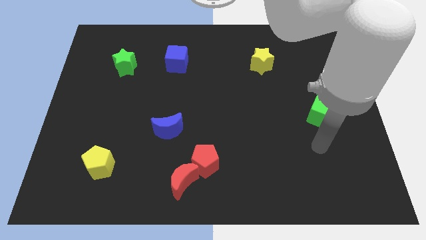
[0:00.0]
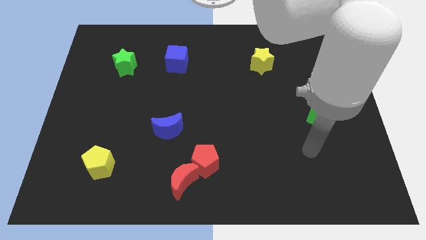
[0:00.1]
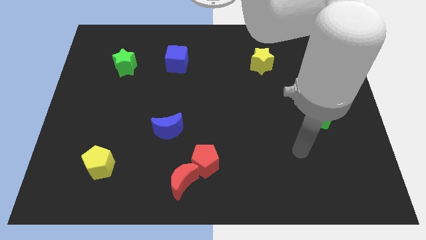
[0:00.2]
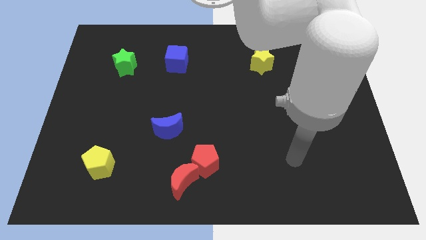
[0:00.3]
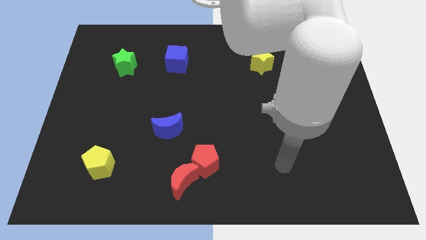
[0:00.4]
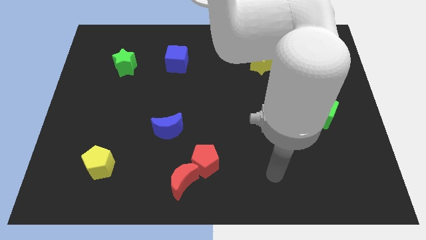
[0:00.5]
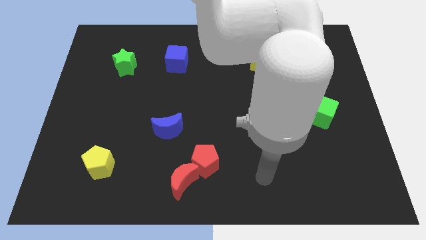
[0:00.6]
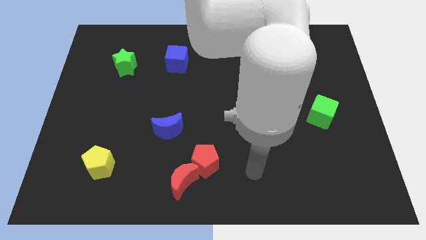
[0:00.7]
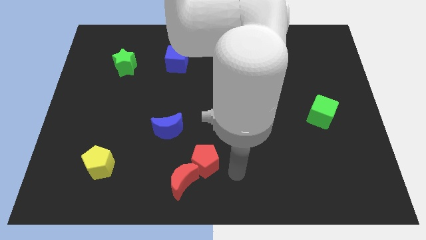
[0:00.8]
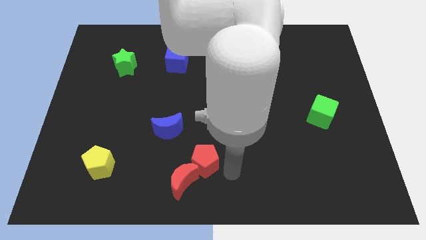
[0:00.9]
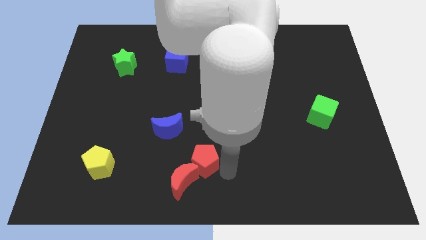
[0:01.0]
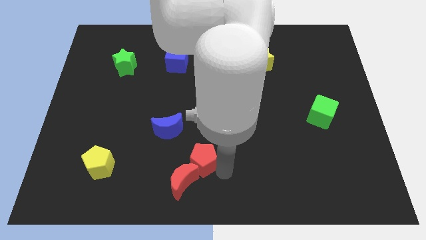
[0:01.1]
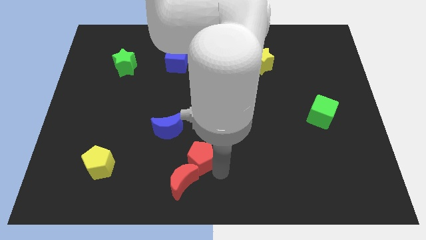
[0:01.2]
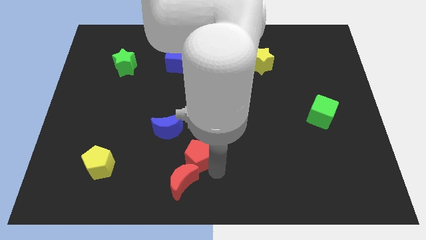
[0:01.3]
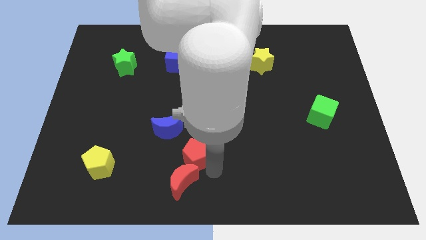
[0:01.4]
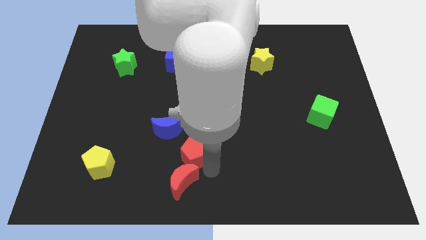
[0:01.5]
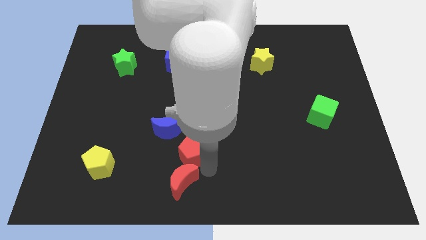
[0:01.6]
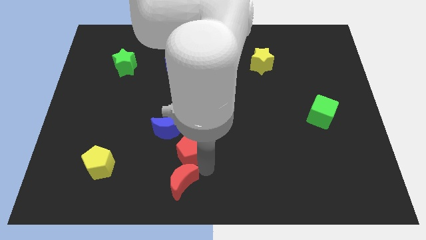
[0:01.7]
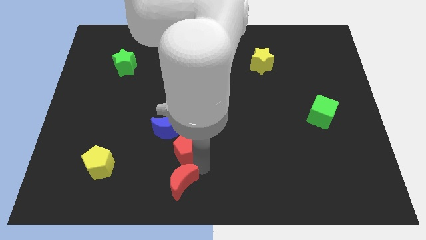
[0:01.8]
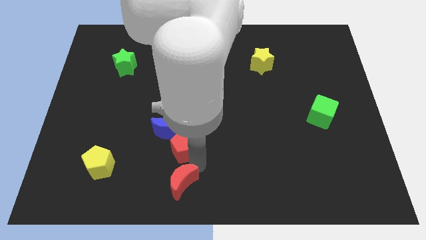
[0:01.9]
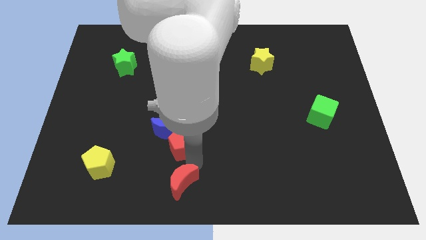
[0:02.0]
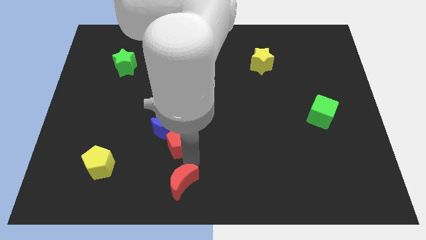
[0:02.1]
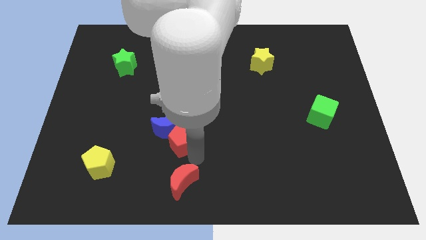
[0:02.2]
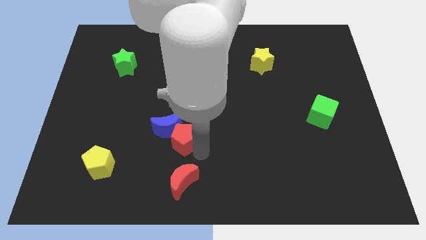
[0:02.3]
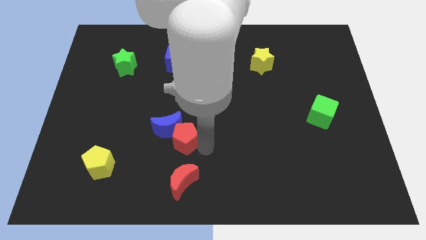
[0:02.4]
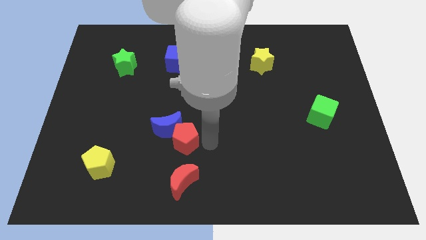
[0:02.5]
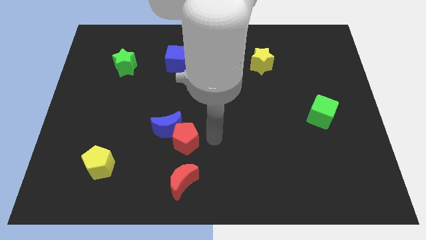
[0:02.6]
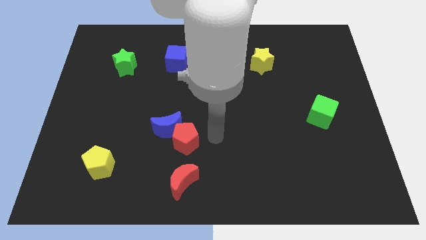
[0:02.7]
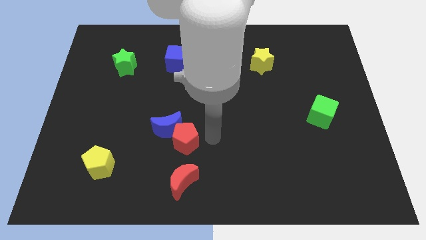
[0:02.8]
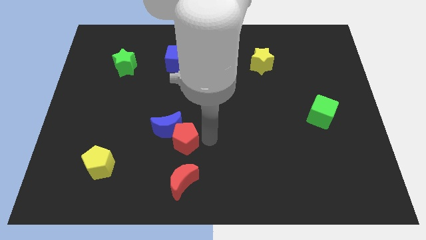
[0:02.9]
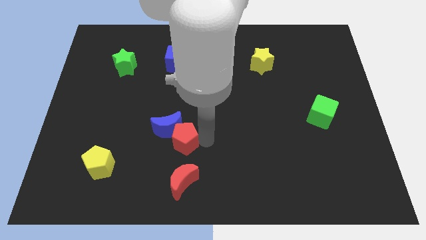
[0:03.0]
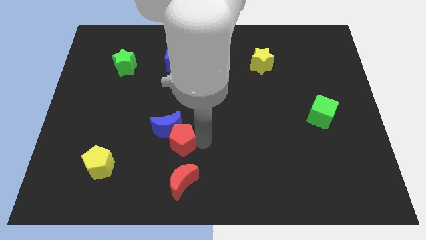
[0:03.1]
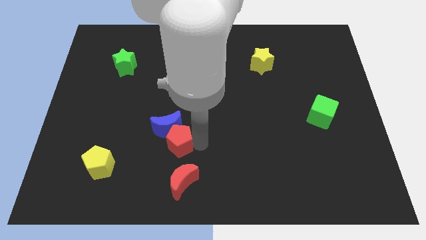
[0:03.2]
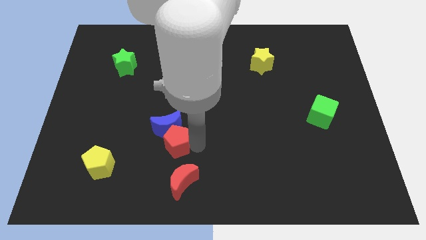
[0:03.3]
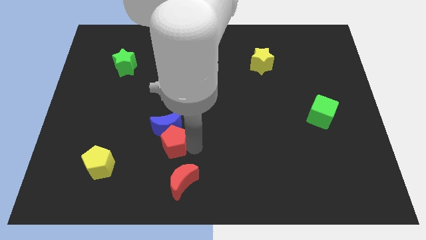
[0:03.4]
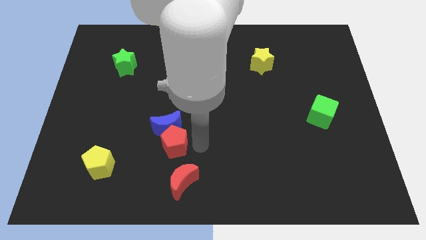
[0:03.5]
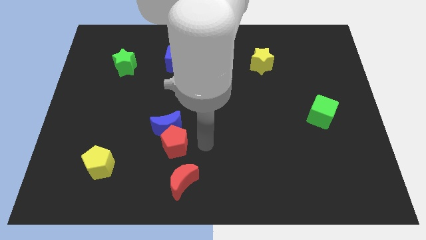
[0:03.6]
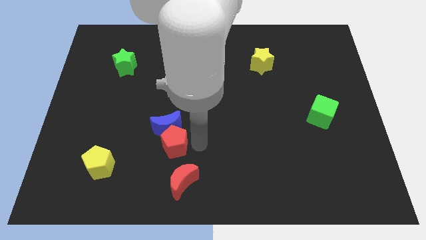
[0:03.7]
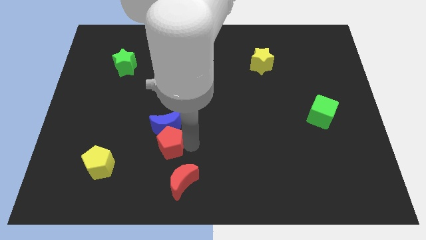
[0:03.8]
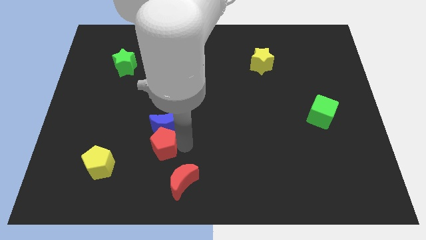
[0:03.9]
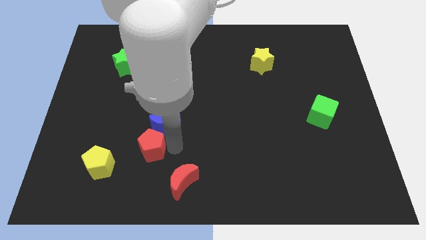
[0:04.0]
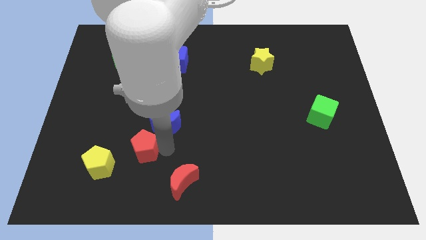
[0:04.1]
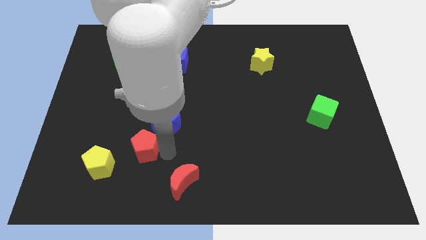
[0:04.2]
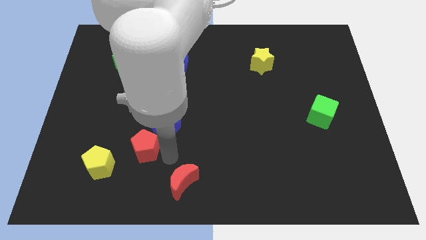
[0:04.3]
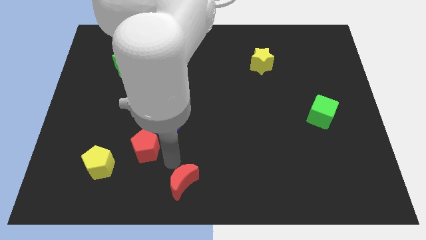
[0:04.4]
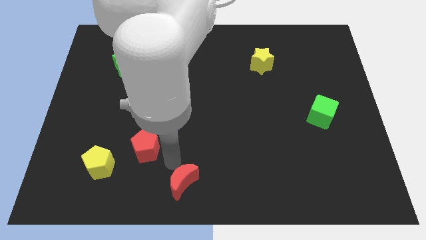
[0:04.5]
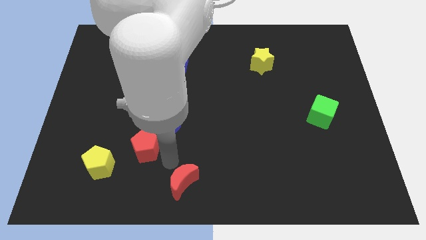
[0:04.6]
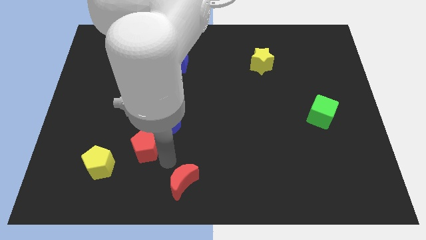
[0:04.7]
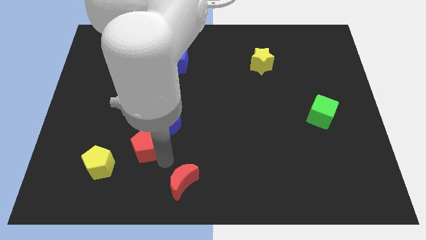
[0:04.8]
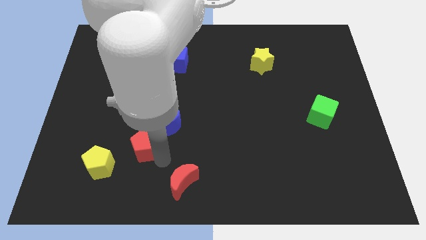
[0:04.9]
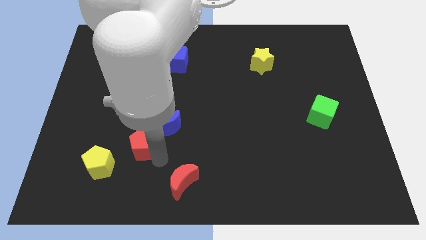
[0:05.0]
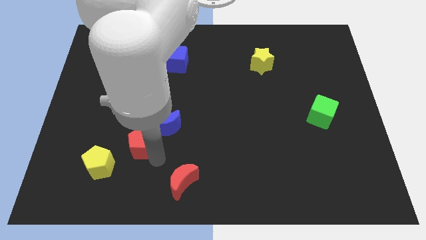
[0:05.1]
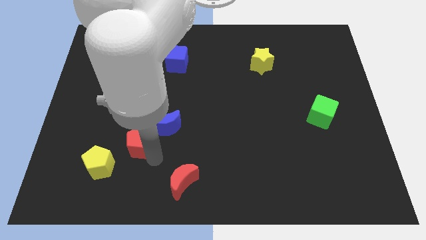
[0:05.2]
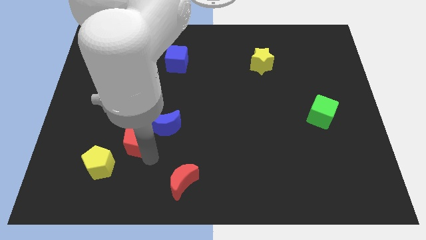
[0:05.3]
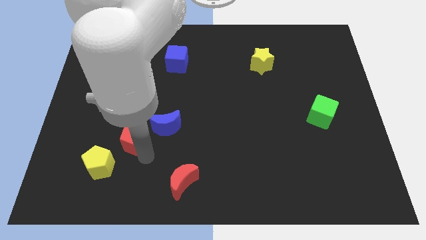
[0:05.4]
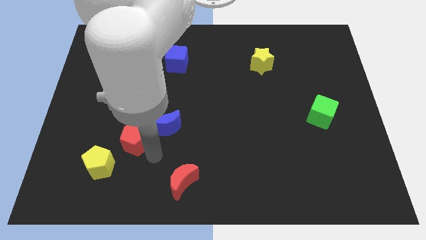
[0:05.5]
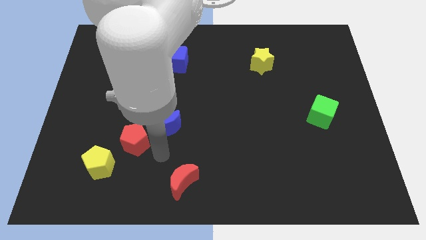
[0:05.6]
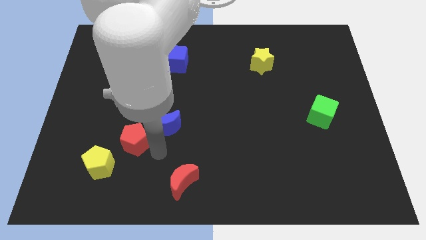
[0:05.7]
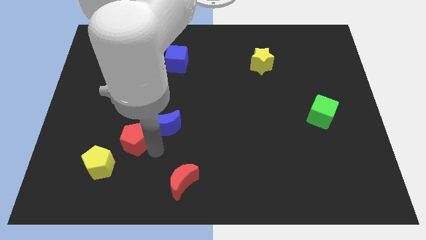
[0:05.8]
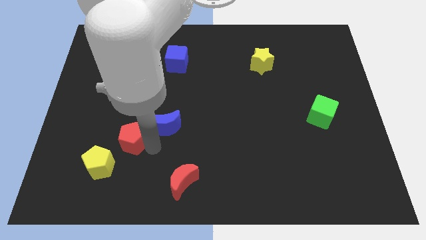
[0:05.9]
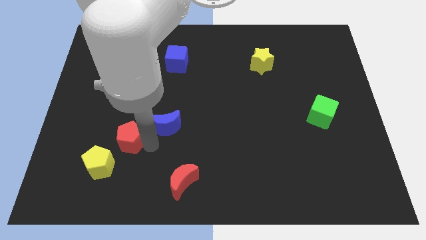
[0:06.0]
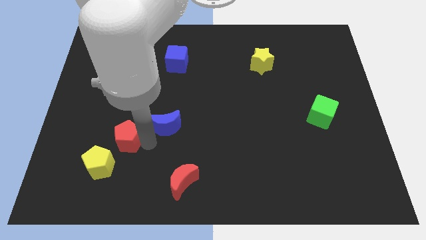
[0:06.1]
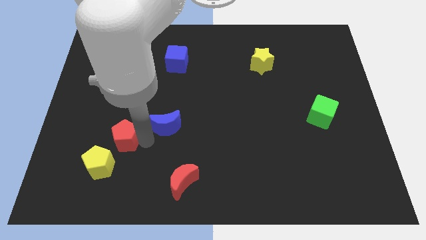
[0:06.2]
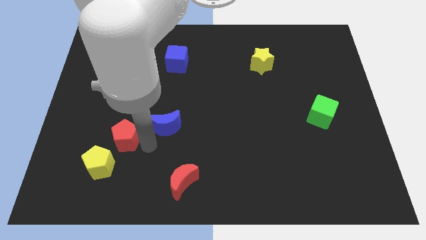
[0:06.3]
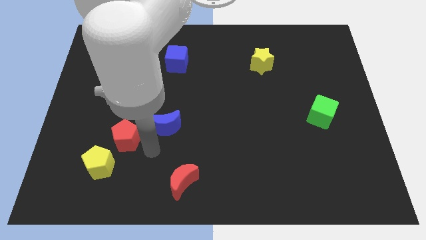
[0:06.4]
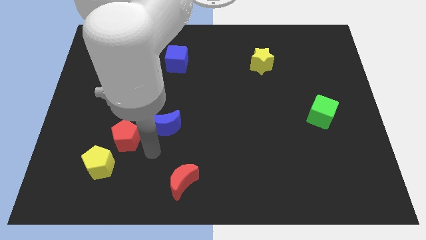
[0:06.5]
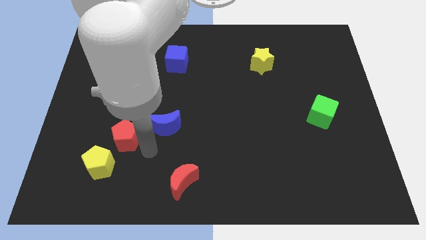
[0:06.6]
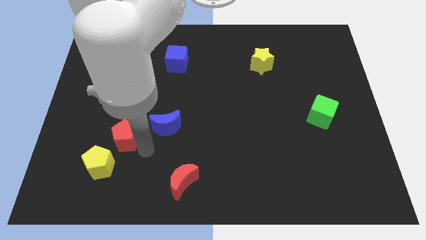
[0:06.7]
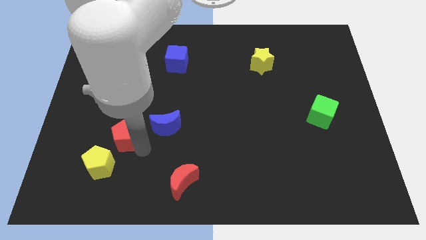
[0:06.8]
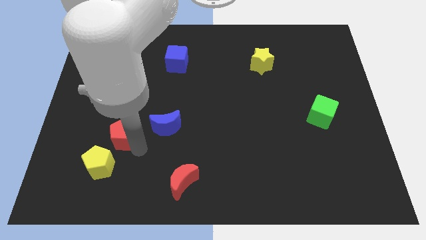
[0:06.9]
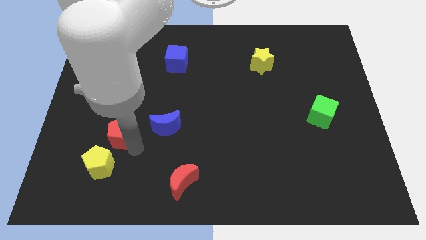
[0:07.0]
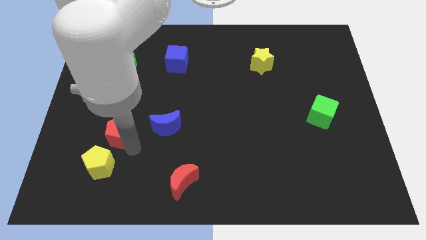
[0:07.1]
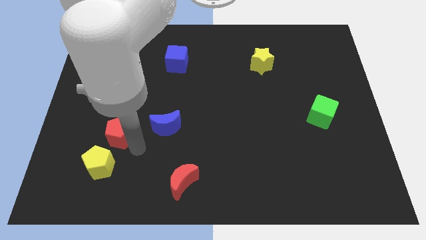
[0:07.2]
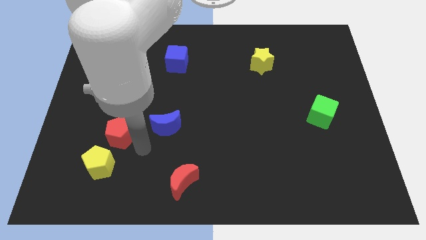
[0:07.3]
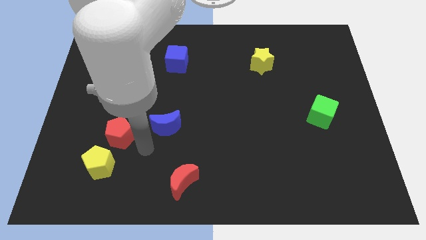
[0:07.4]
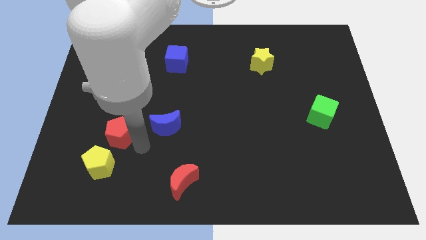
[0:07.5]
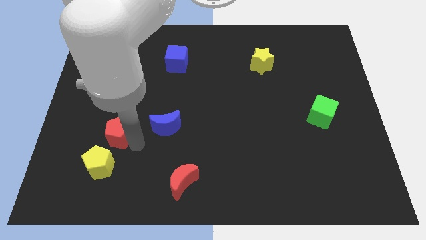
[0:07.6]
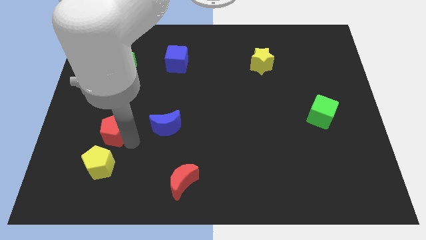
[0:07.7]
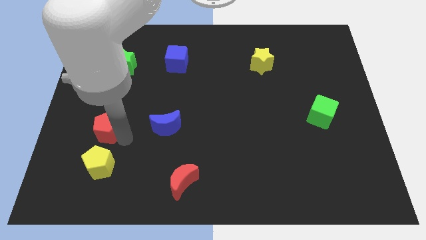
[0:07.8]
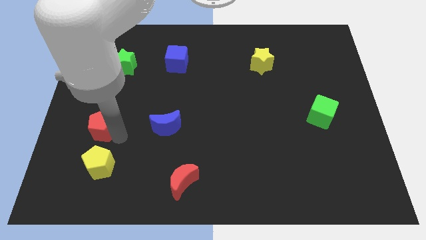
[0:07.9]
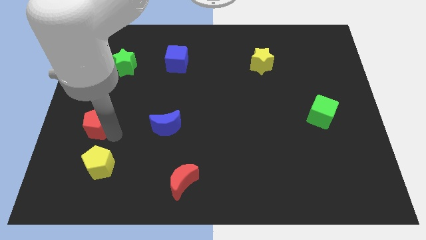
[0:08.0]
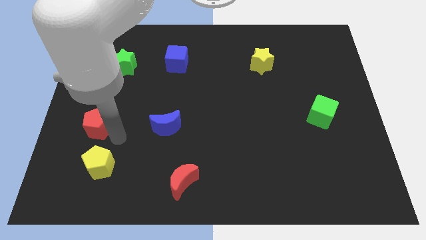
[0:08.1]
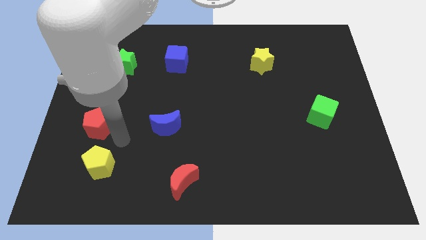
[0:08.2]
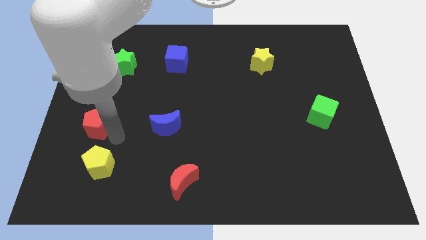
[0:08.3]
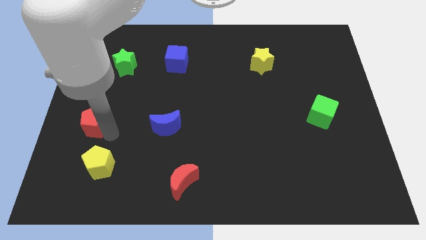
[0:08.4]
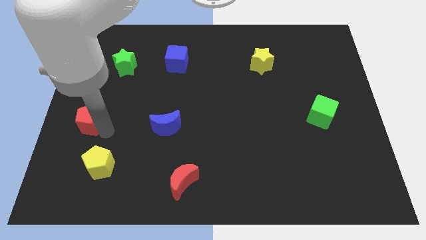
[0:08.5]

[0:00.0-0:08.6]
slide the red pentagon to the center left
